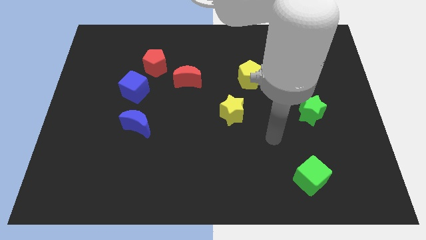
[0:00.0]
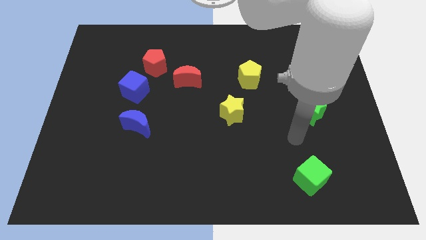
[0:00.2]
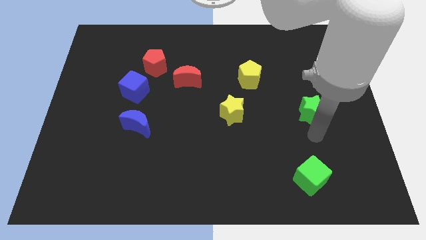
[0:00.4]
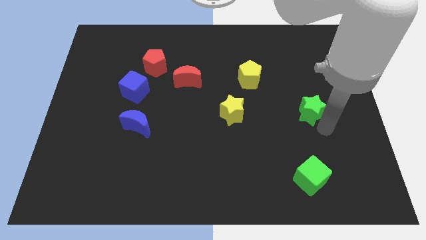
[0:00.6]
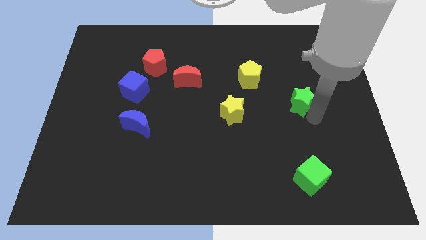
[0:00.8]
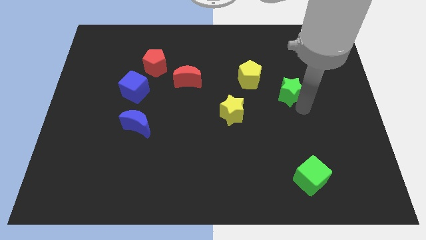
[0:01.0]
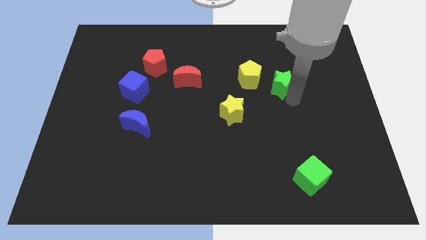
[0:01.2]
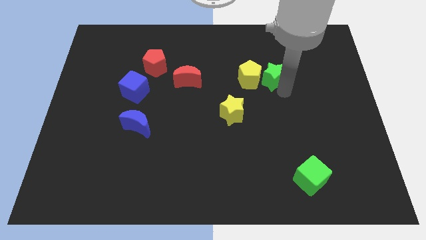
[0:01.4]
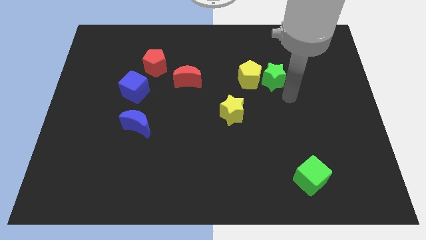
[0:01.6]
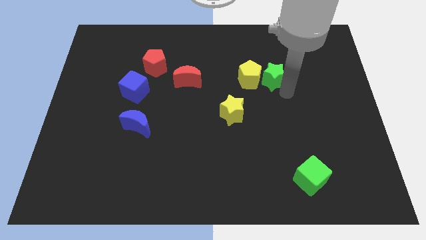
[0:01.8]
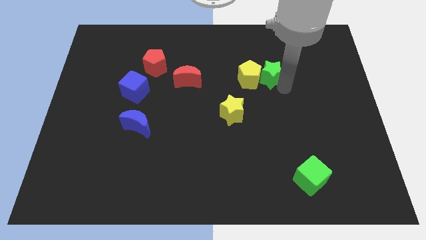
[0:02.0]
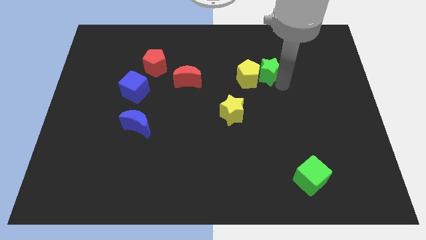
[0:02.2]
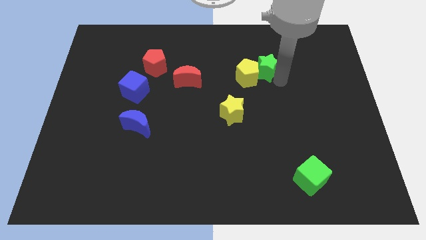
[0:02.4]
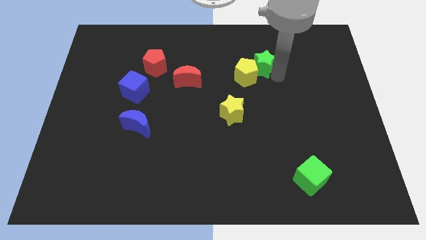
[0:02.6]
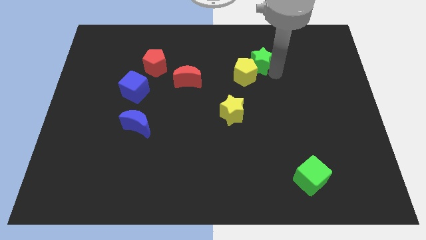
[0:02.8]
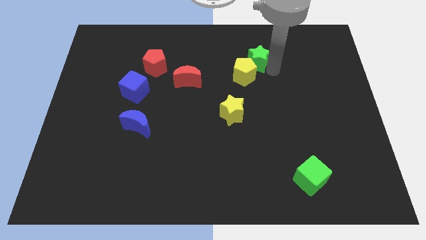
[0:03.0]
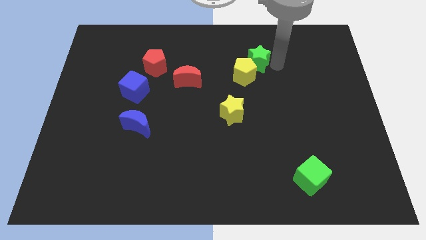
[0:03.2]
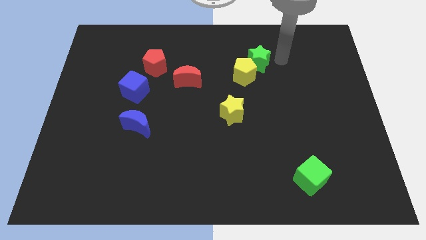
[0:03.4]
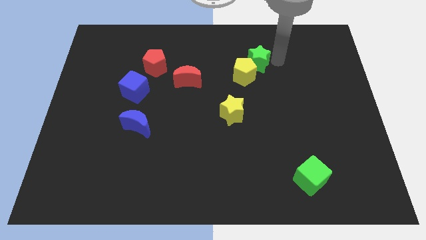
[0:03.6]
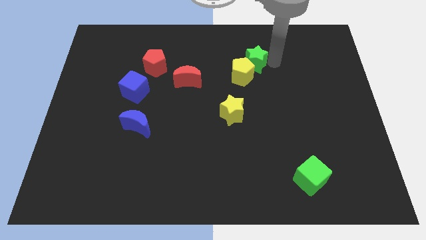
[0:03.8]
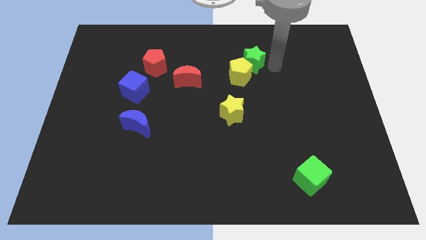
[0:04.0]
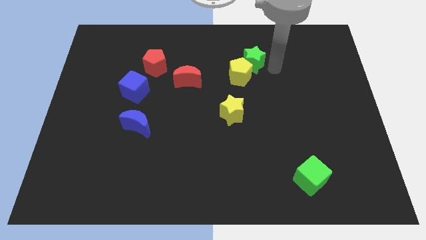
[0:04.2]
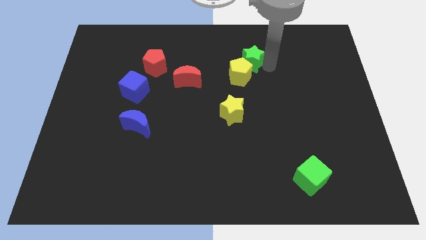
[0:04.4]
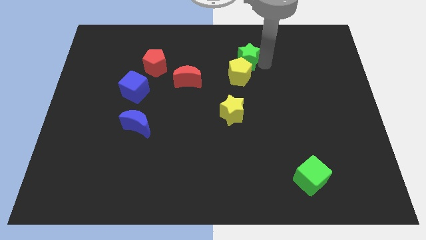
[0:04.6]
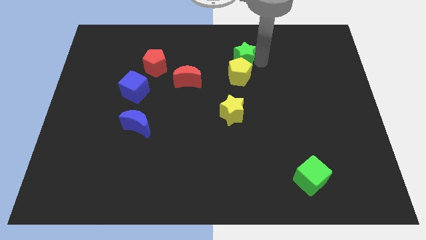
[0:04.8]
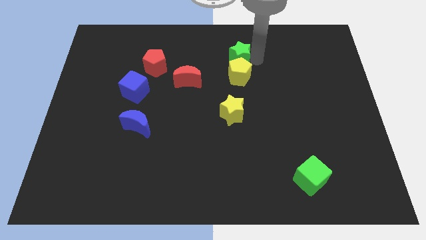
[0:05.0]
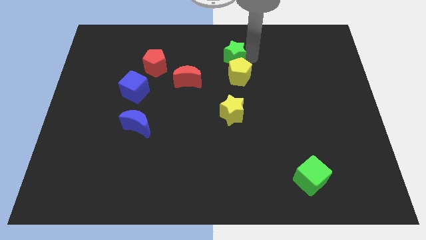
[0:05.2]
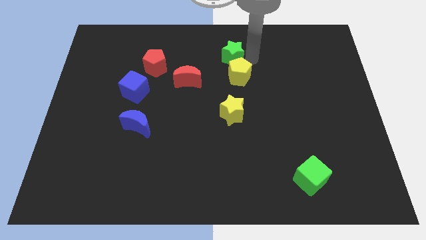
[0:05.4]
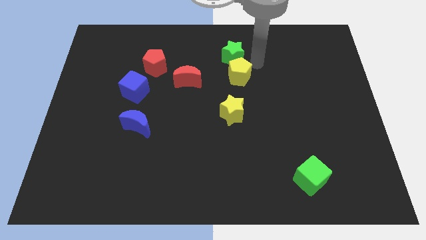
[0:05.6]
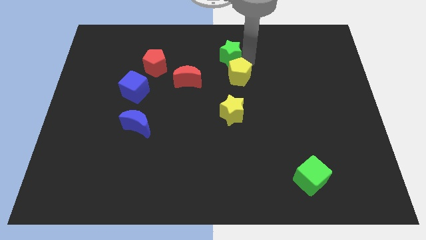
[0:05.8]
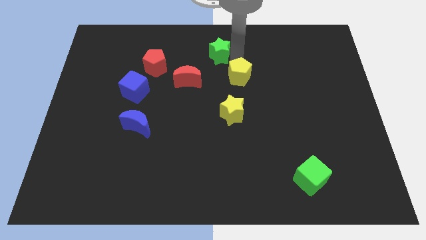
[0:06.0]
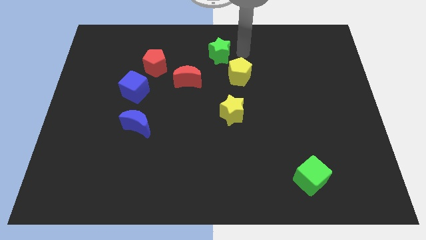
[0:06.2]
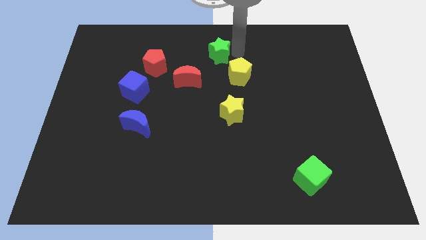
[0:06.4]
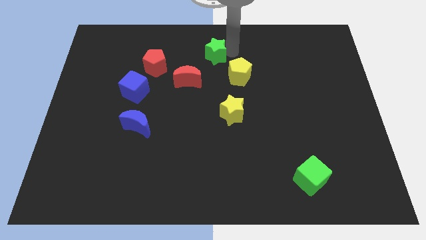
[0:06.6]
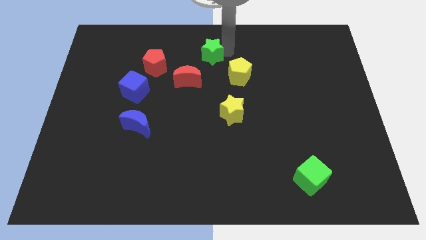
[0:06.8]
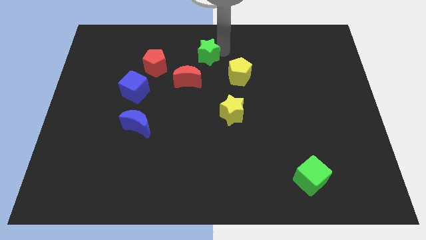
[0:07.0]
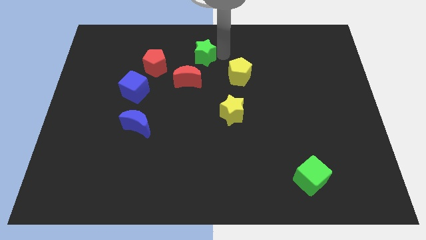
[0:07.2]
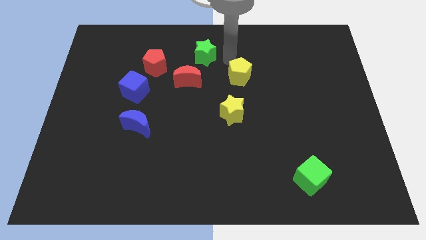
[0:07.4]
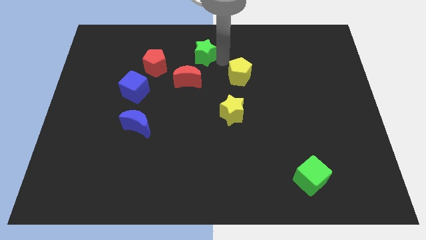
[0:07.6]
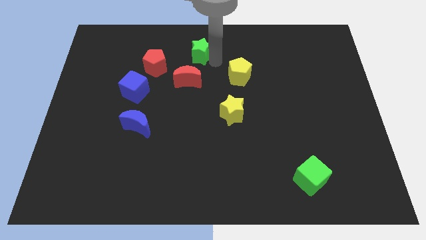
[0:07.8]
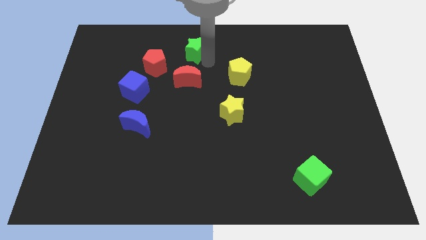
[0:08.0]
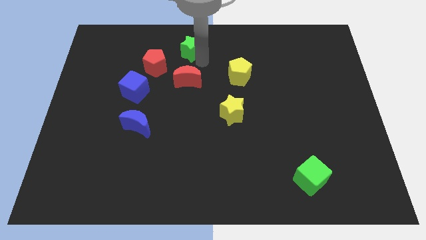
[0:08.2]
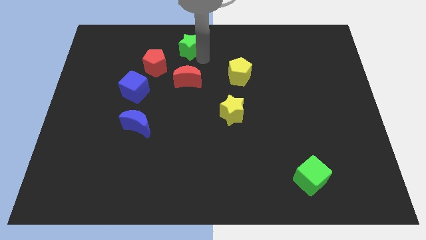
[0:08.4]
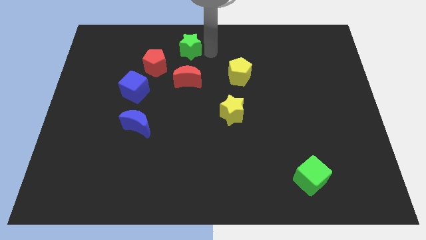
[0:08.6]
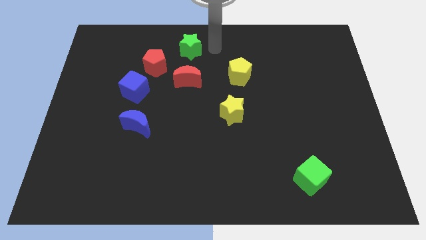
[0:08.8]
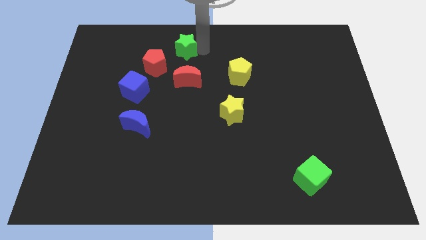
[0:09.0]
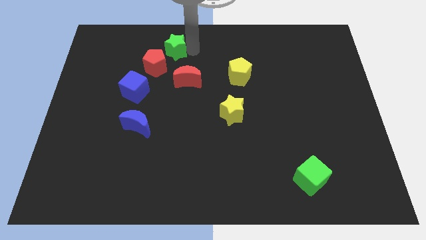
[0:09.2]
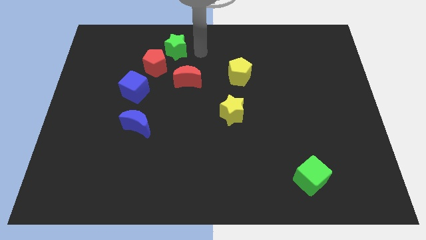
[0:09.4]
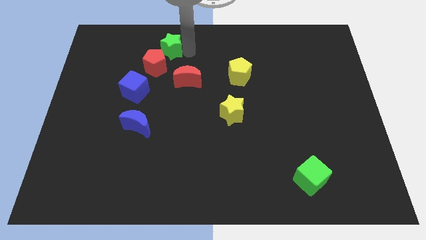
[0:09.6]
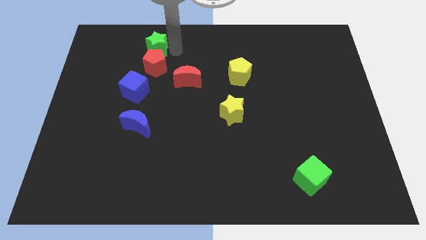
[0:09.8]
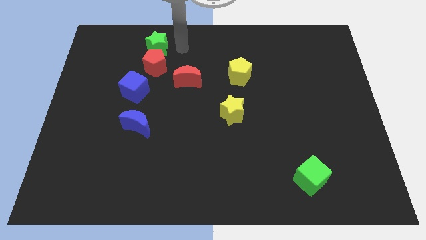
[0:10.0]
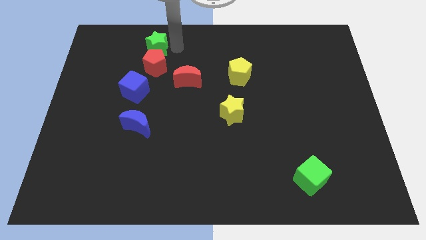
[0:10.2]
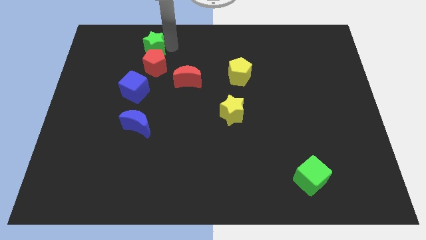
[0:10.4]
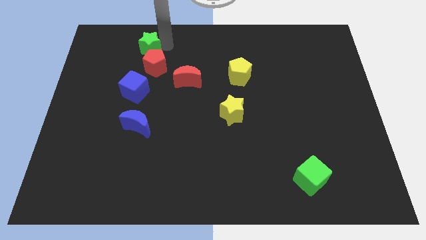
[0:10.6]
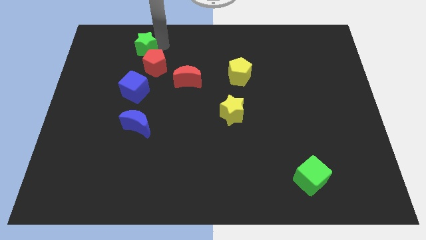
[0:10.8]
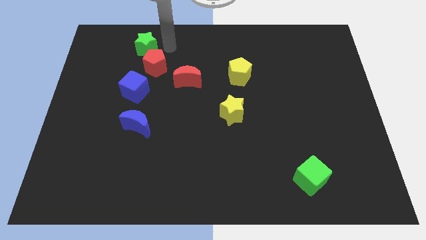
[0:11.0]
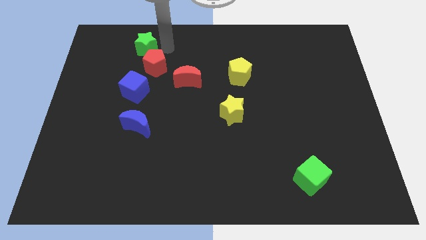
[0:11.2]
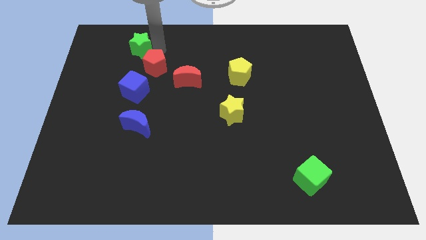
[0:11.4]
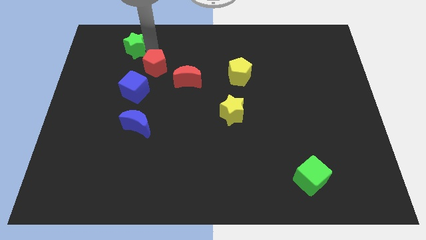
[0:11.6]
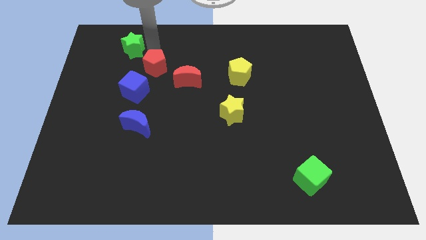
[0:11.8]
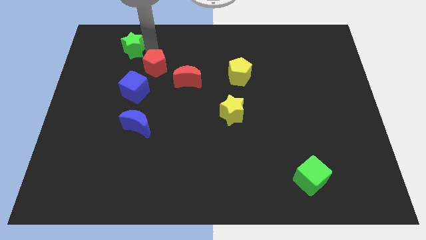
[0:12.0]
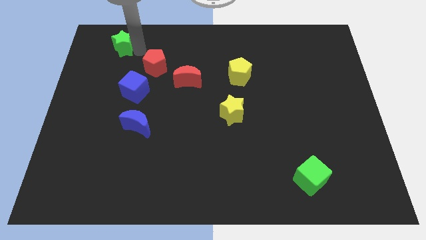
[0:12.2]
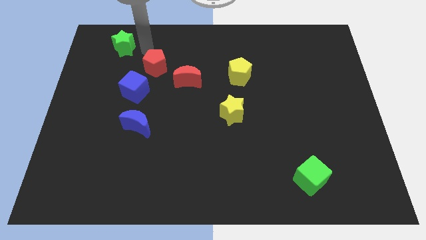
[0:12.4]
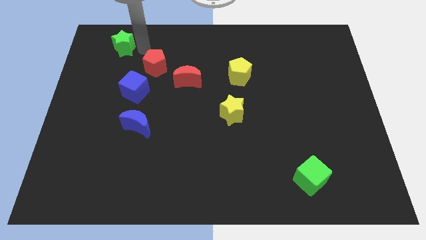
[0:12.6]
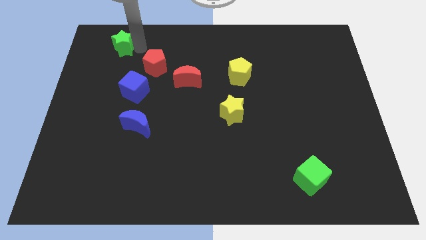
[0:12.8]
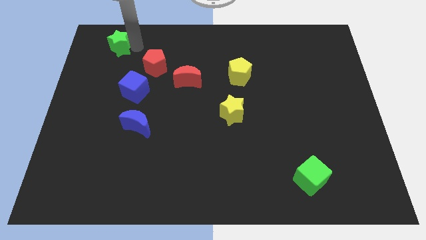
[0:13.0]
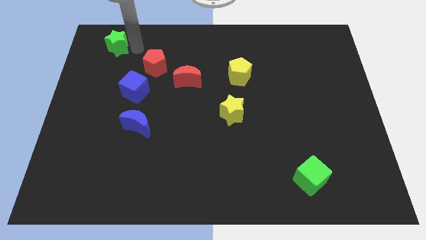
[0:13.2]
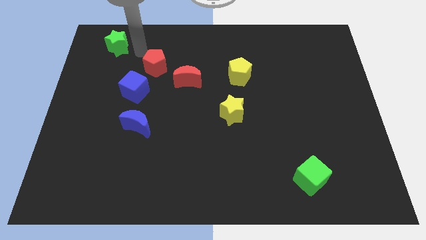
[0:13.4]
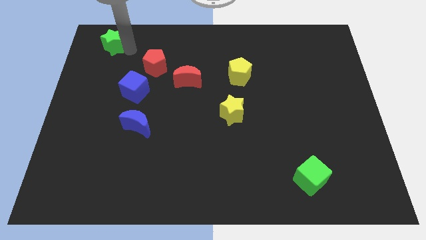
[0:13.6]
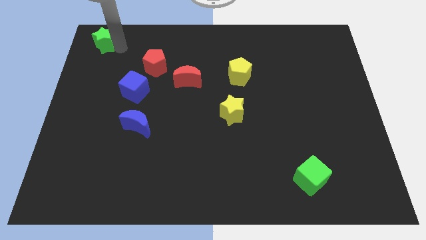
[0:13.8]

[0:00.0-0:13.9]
slide the green star to the upper left corner
